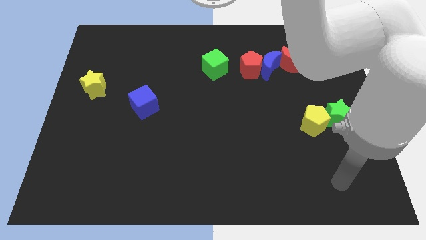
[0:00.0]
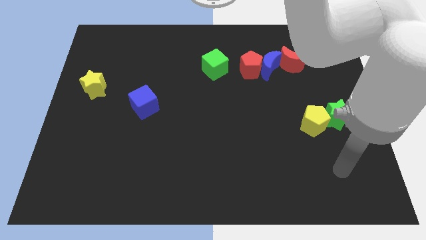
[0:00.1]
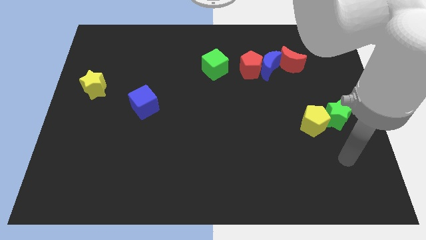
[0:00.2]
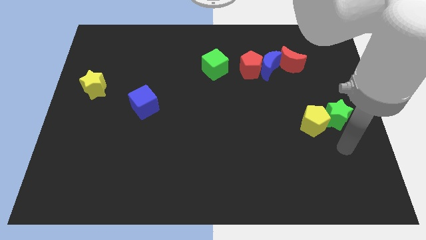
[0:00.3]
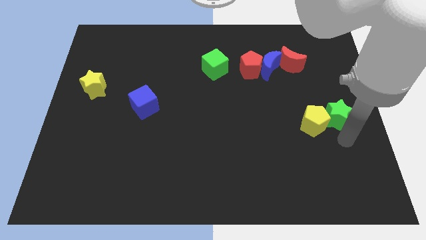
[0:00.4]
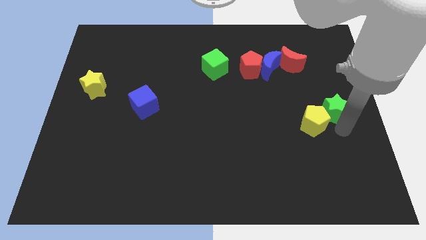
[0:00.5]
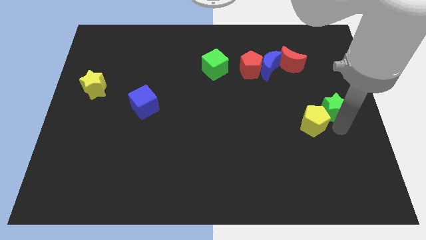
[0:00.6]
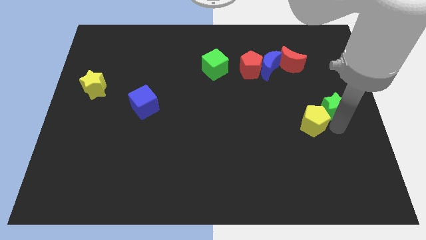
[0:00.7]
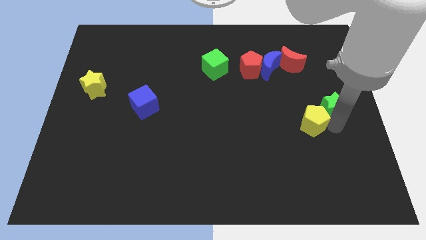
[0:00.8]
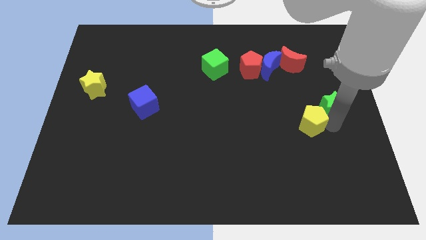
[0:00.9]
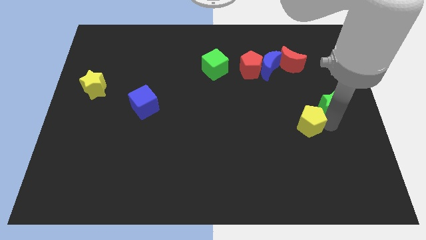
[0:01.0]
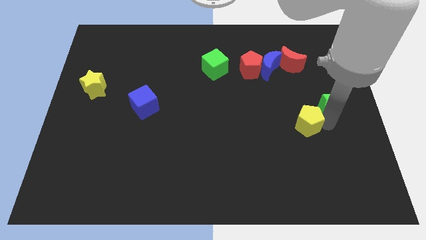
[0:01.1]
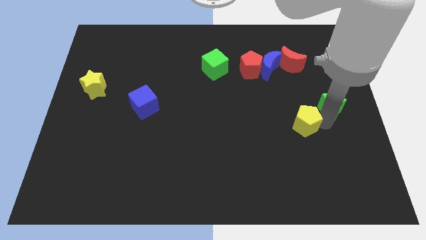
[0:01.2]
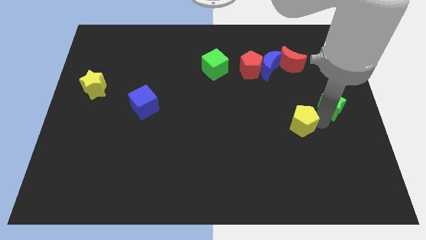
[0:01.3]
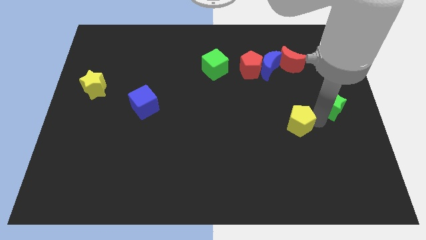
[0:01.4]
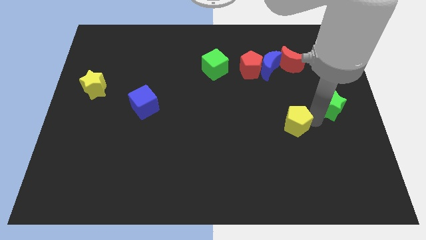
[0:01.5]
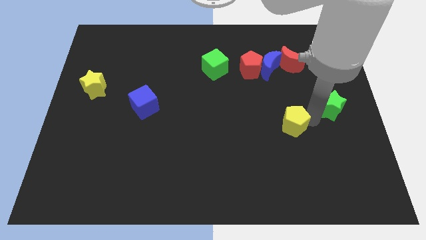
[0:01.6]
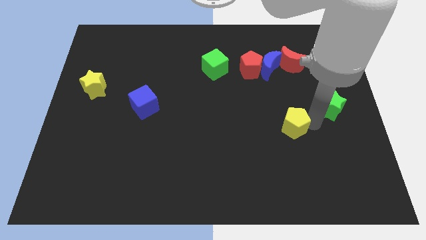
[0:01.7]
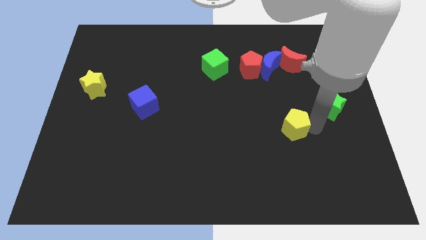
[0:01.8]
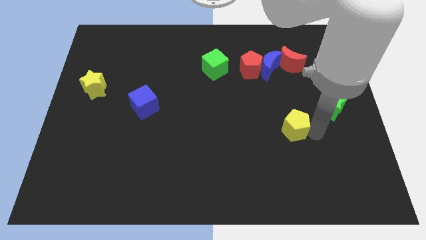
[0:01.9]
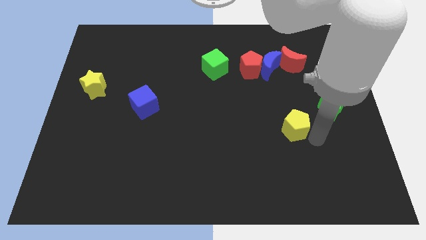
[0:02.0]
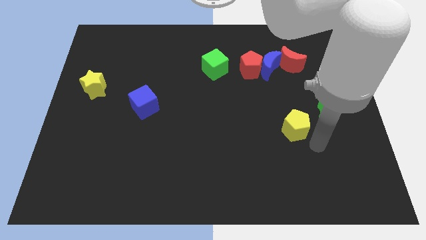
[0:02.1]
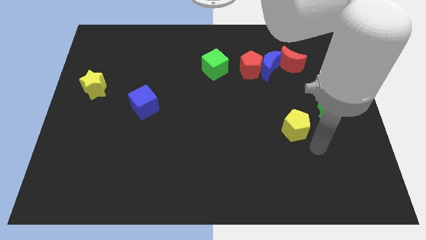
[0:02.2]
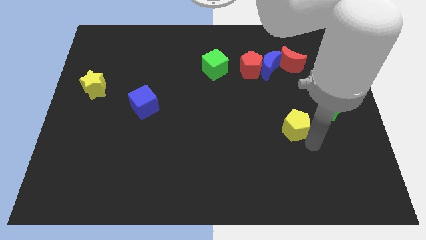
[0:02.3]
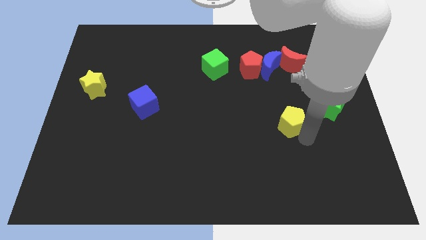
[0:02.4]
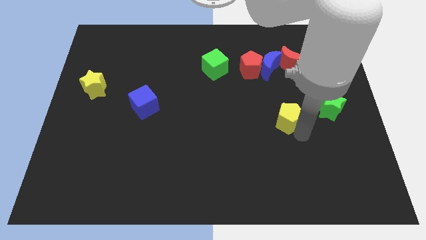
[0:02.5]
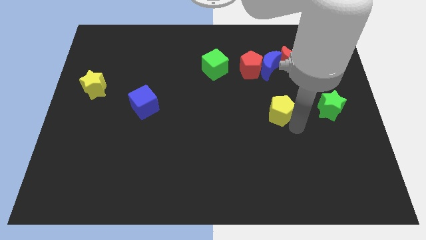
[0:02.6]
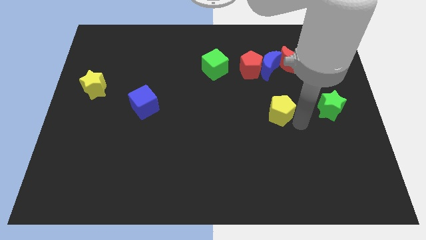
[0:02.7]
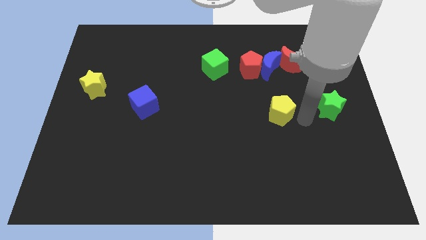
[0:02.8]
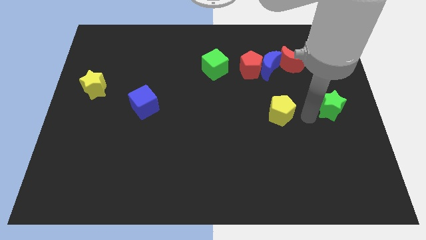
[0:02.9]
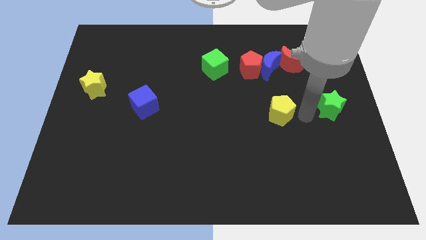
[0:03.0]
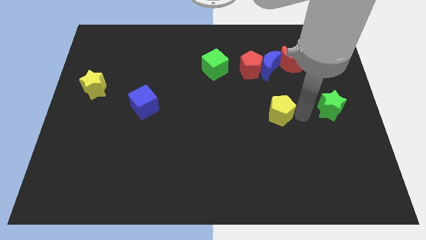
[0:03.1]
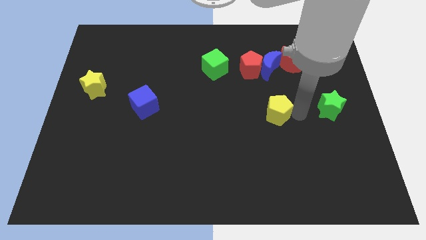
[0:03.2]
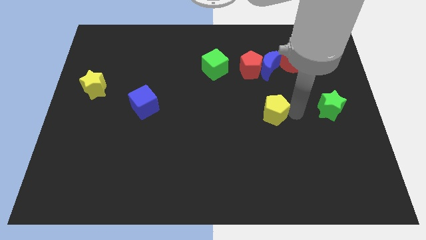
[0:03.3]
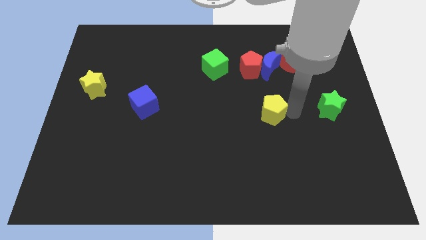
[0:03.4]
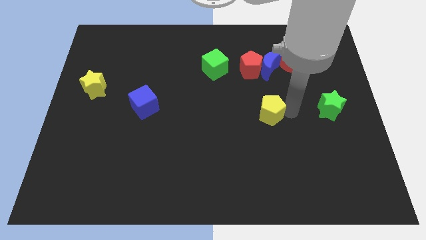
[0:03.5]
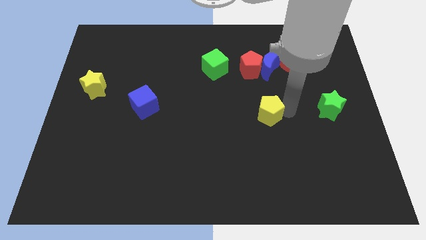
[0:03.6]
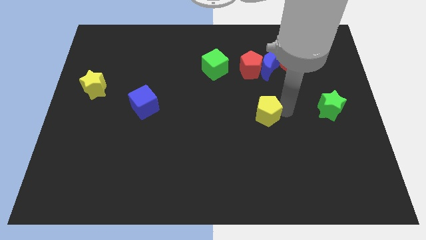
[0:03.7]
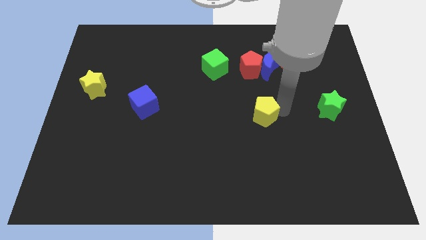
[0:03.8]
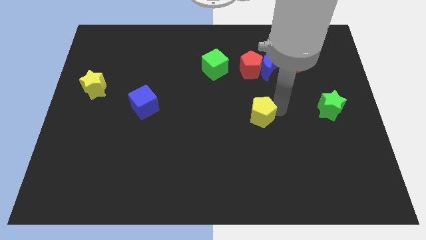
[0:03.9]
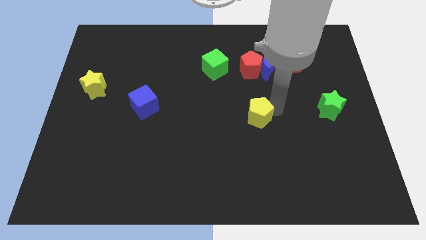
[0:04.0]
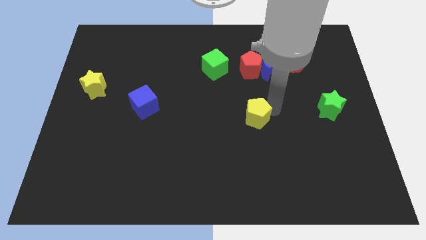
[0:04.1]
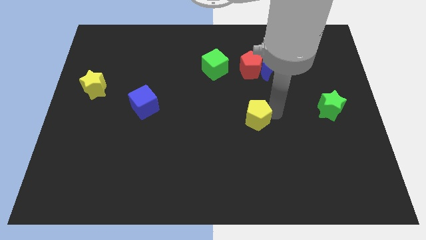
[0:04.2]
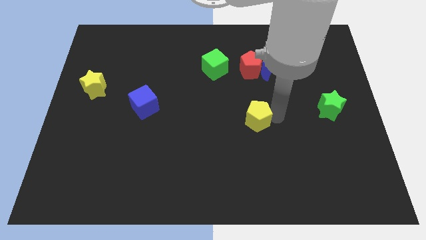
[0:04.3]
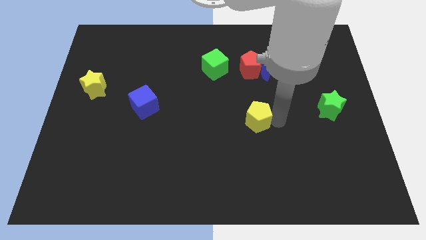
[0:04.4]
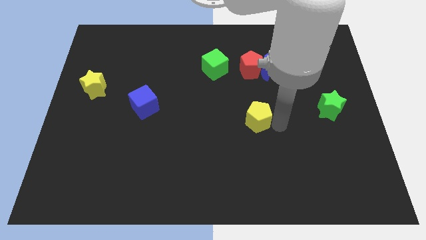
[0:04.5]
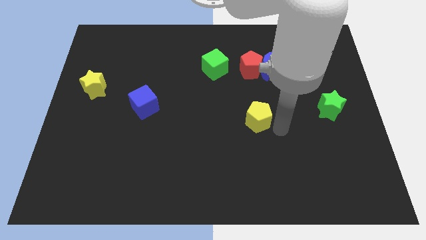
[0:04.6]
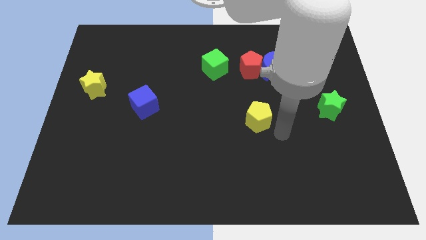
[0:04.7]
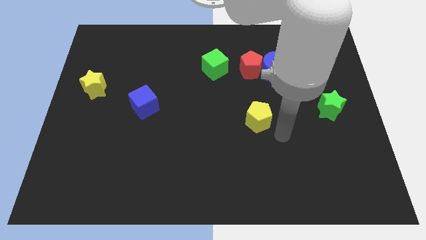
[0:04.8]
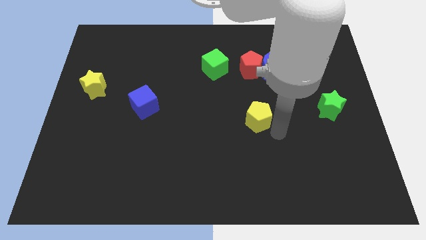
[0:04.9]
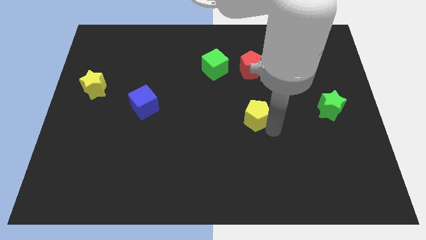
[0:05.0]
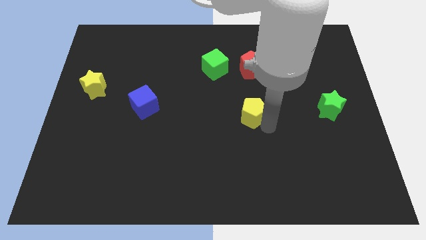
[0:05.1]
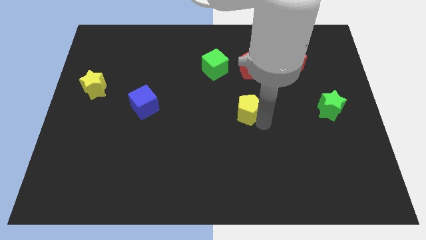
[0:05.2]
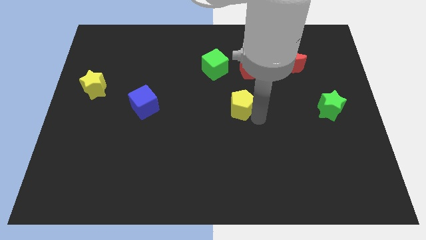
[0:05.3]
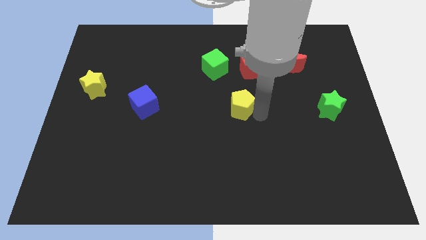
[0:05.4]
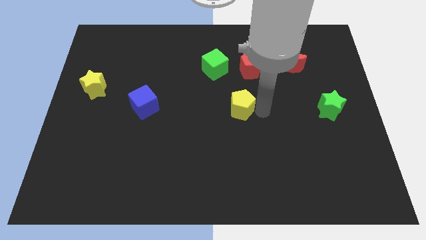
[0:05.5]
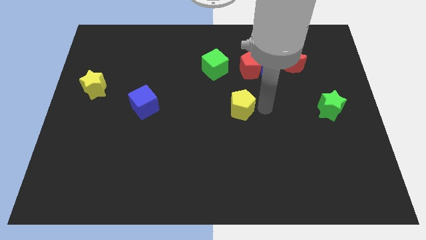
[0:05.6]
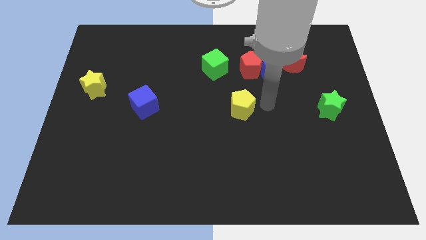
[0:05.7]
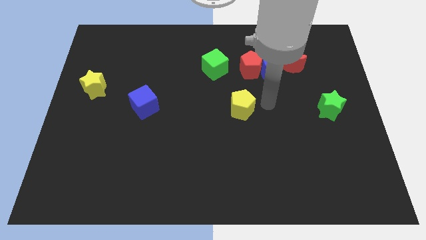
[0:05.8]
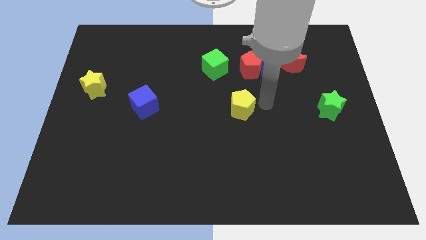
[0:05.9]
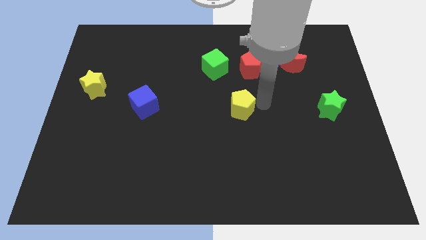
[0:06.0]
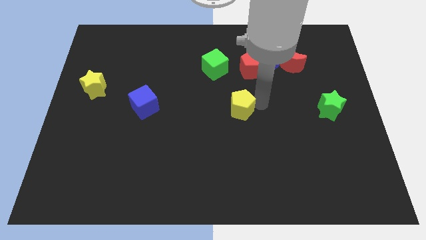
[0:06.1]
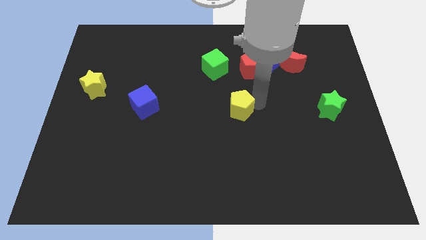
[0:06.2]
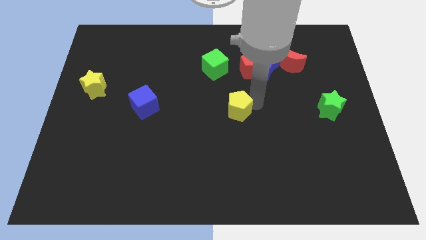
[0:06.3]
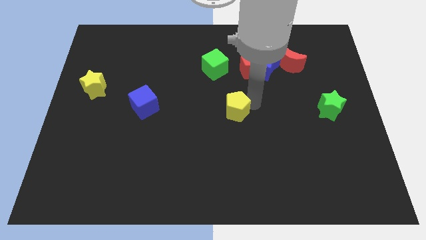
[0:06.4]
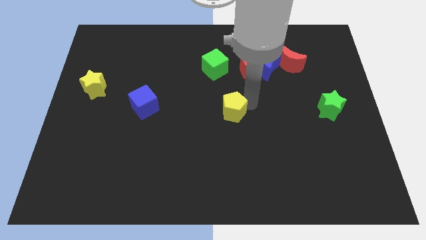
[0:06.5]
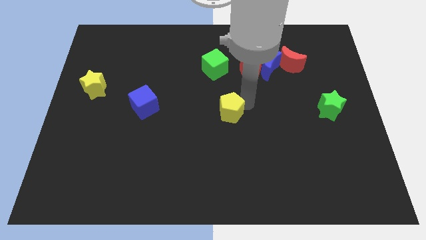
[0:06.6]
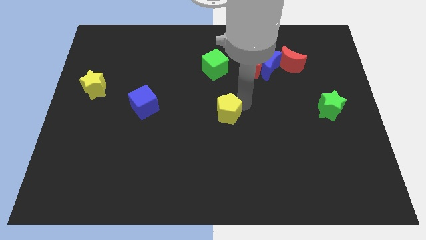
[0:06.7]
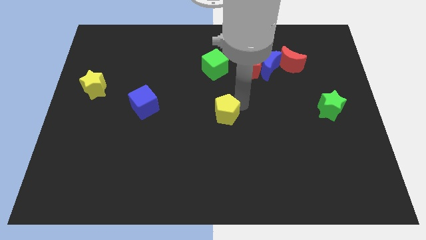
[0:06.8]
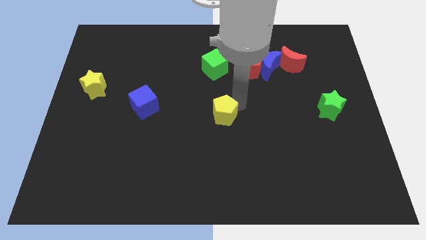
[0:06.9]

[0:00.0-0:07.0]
slide the yellow pentagon left

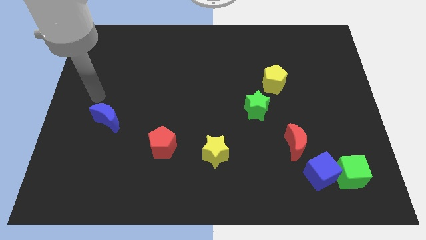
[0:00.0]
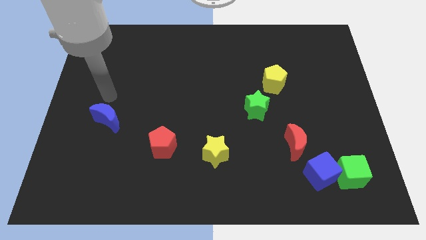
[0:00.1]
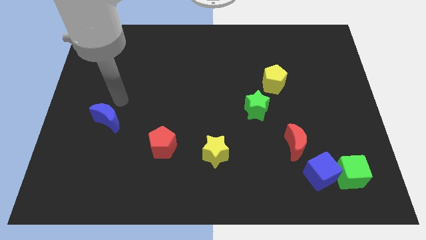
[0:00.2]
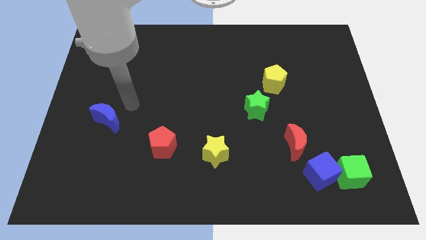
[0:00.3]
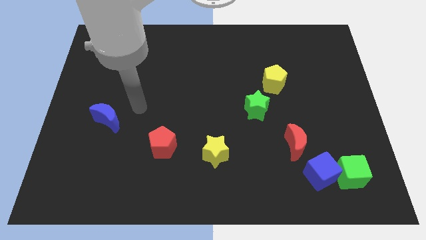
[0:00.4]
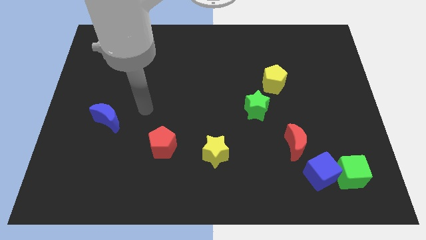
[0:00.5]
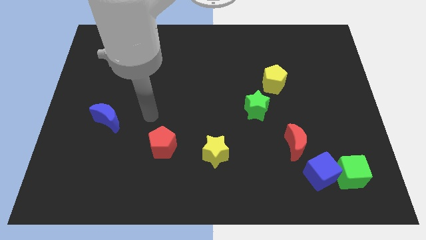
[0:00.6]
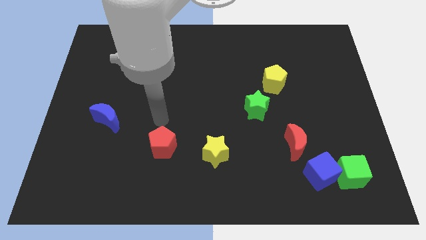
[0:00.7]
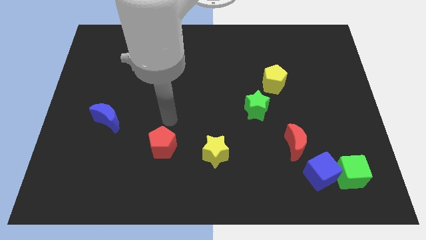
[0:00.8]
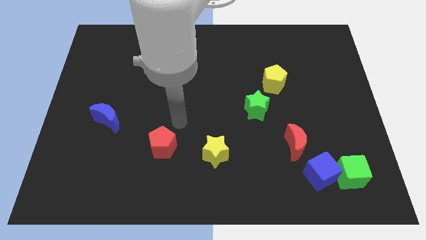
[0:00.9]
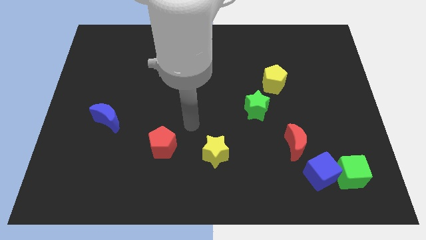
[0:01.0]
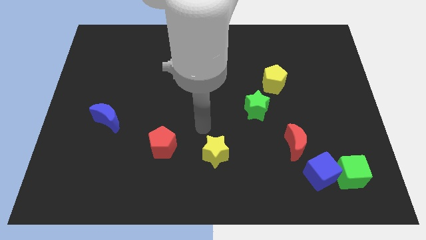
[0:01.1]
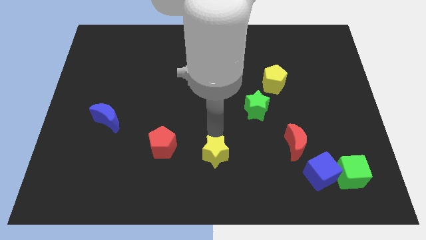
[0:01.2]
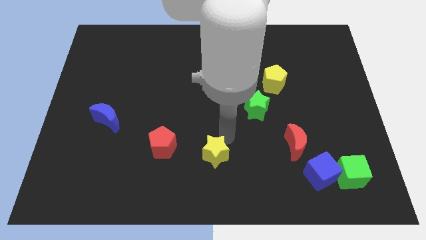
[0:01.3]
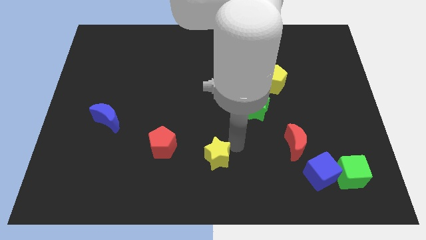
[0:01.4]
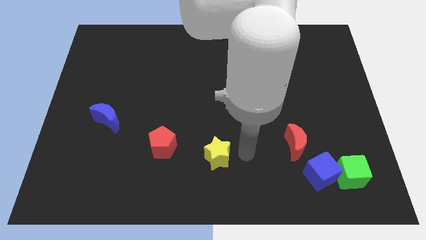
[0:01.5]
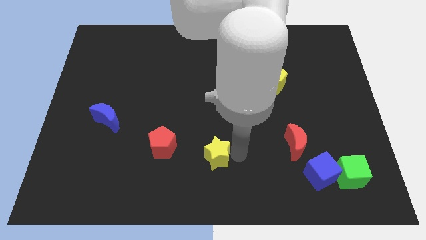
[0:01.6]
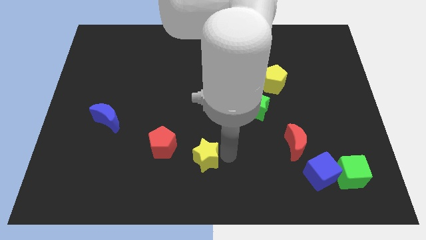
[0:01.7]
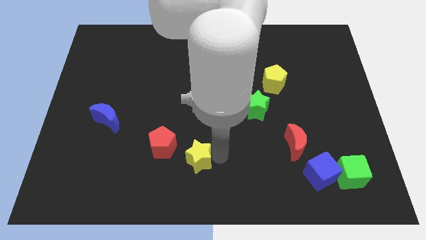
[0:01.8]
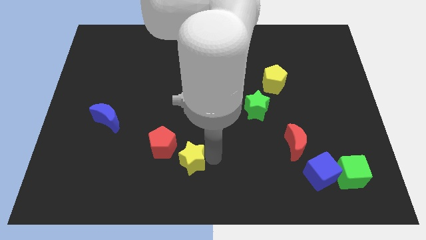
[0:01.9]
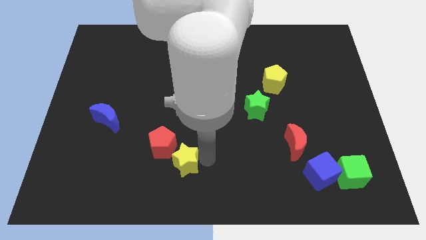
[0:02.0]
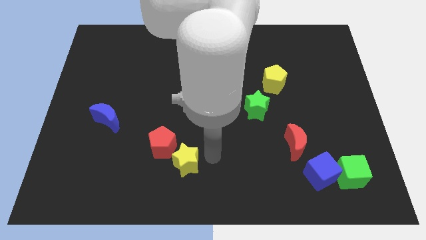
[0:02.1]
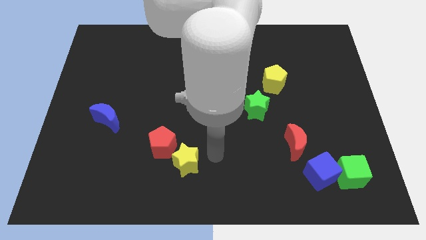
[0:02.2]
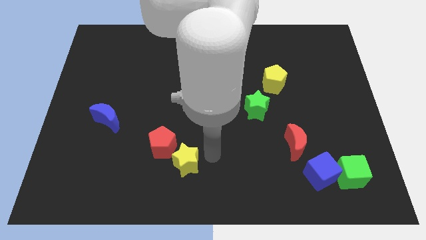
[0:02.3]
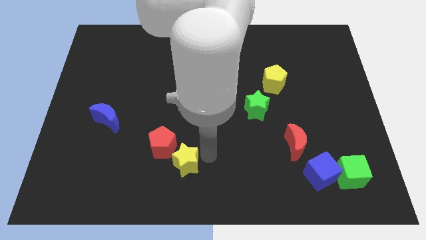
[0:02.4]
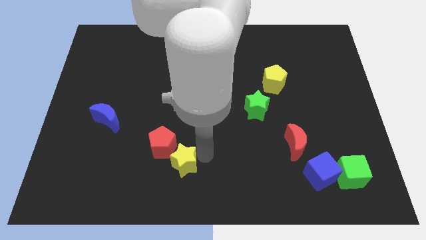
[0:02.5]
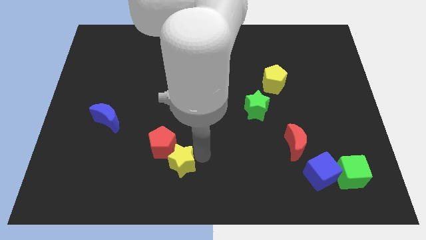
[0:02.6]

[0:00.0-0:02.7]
slide the yellow star somewhat to the left
